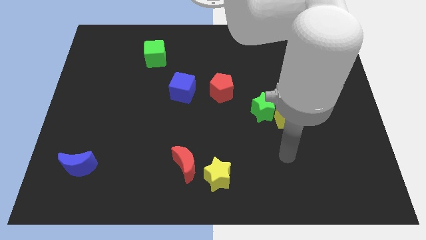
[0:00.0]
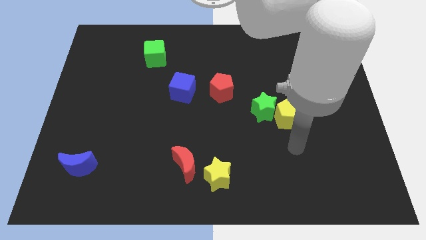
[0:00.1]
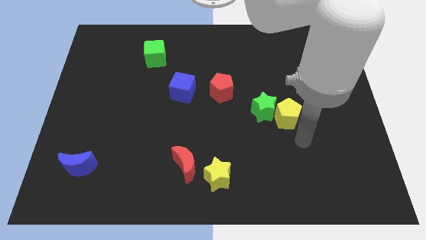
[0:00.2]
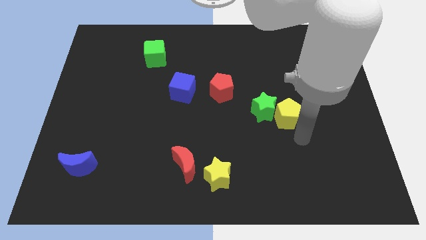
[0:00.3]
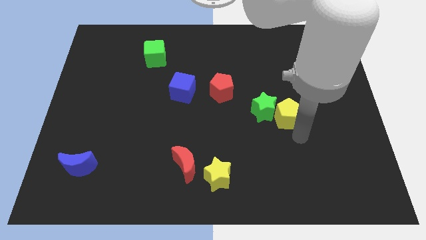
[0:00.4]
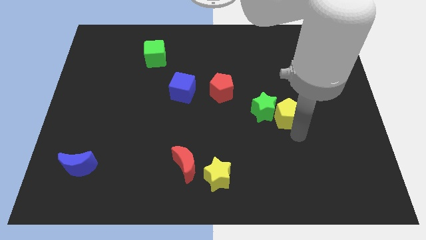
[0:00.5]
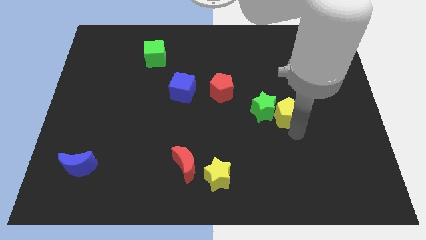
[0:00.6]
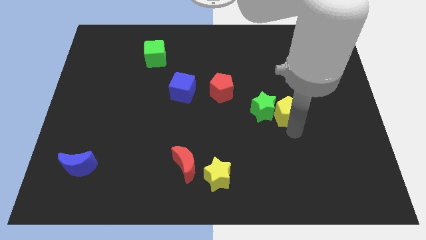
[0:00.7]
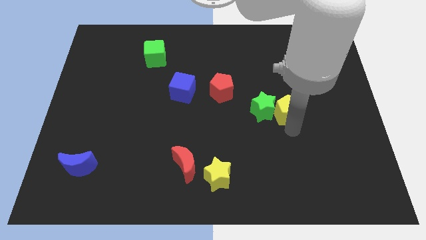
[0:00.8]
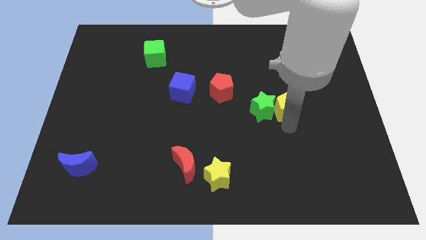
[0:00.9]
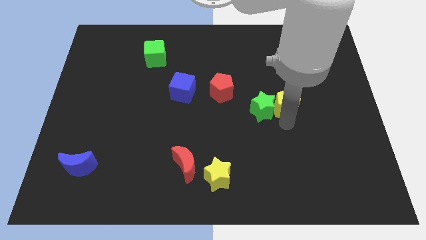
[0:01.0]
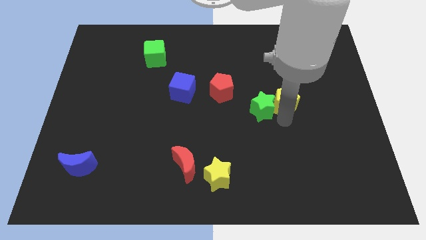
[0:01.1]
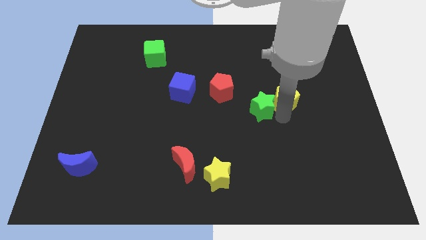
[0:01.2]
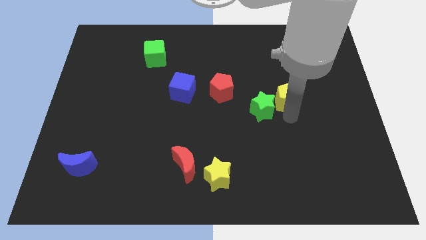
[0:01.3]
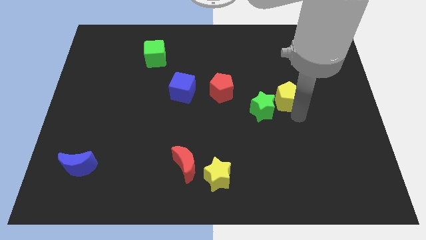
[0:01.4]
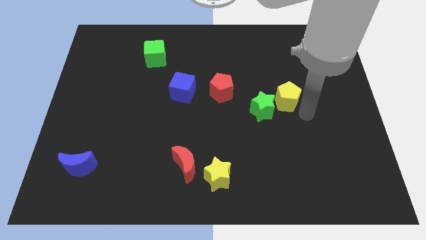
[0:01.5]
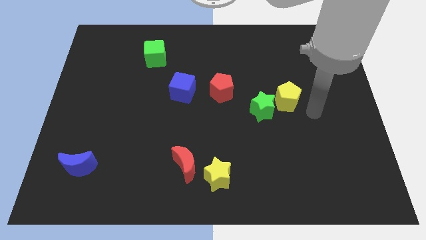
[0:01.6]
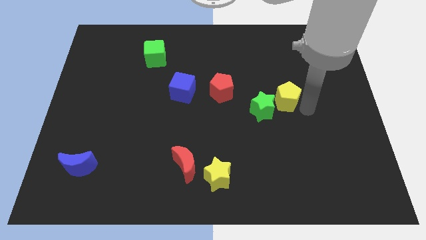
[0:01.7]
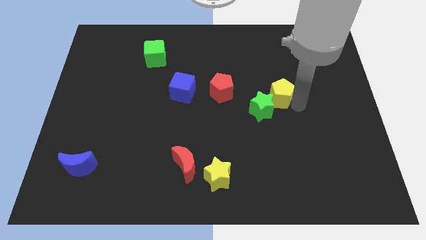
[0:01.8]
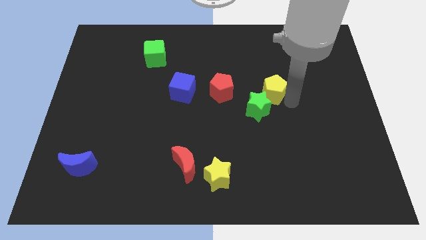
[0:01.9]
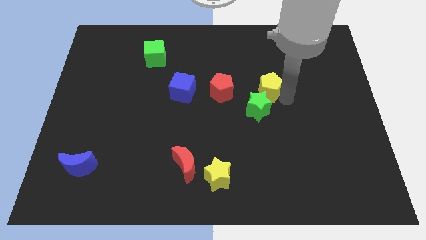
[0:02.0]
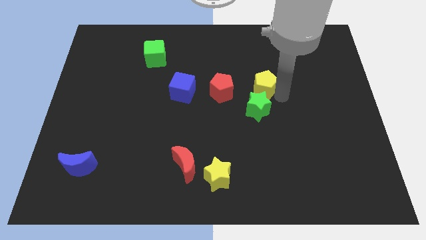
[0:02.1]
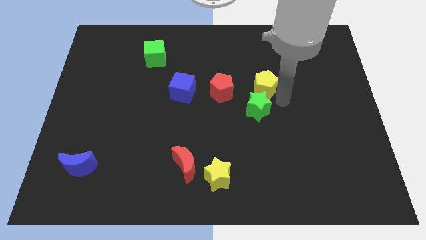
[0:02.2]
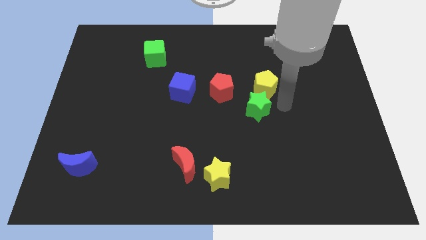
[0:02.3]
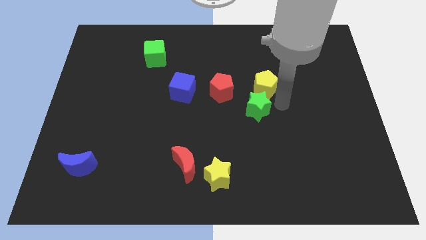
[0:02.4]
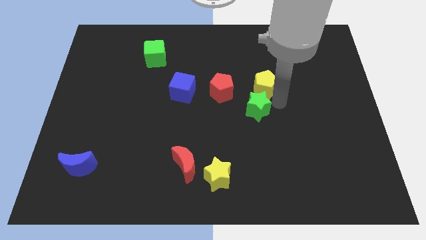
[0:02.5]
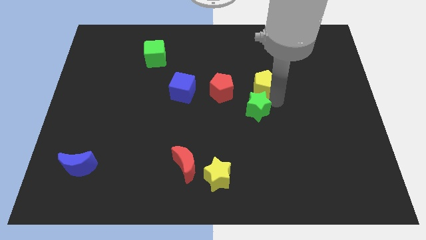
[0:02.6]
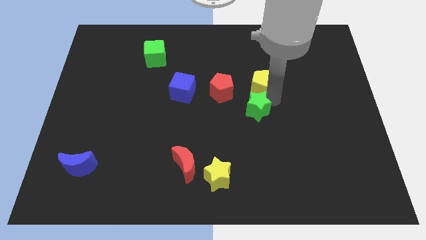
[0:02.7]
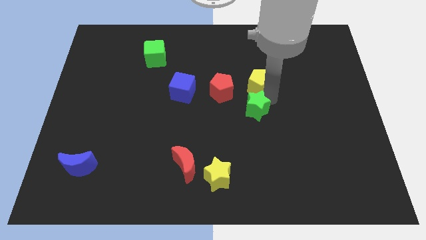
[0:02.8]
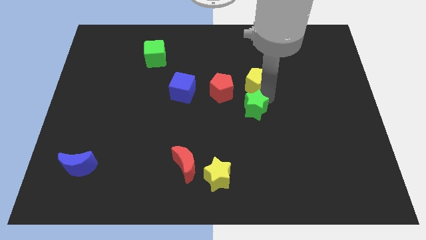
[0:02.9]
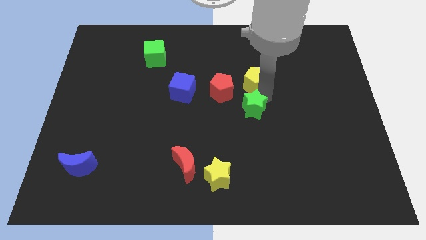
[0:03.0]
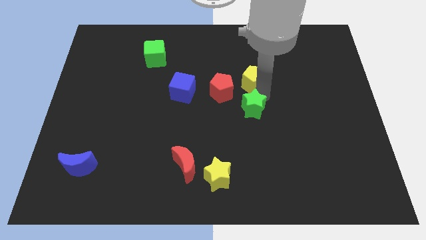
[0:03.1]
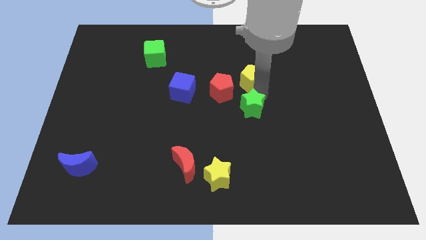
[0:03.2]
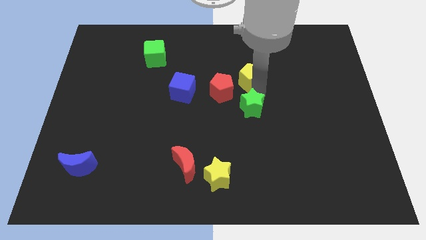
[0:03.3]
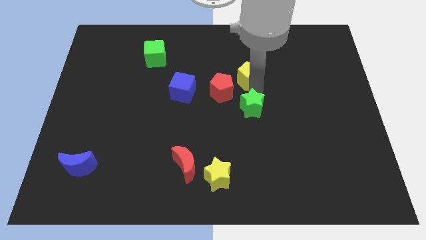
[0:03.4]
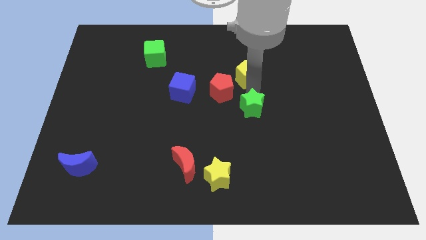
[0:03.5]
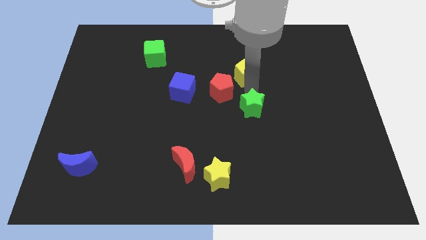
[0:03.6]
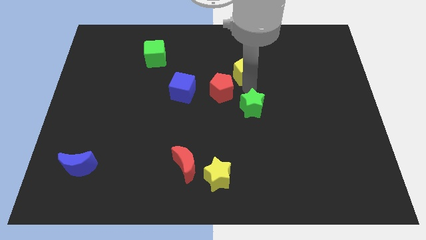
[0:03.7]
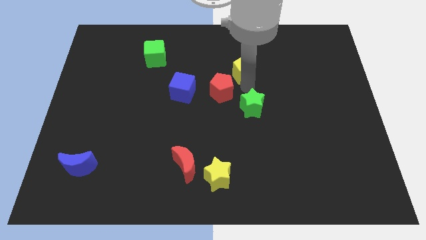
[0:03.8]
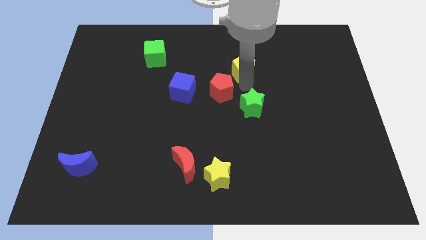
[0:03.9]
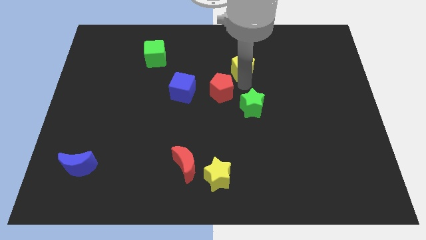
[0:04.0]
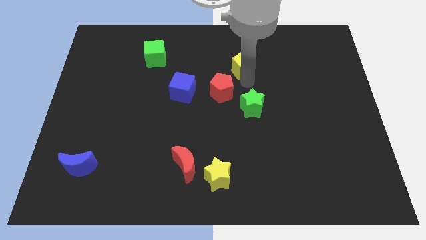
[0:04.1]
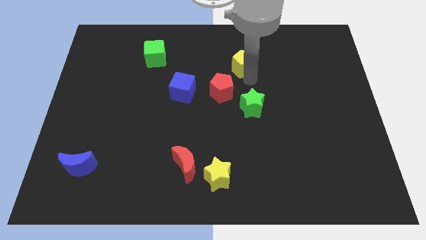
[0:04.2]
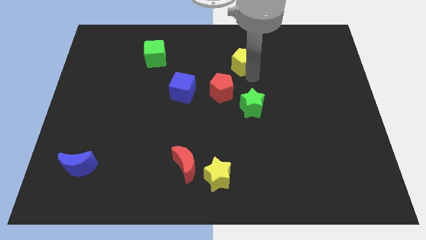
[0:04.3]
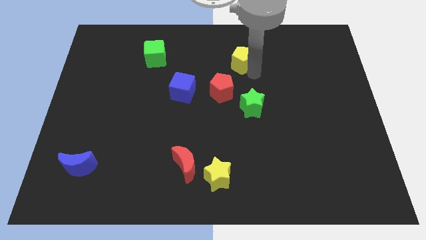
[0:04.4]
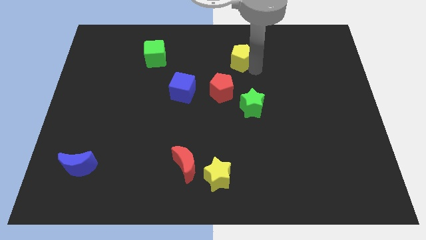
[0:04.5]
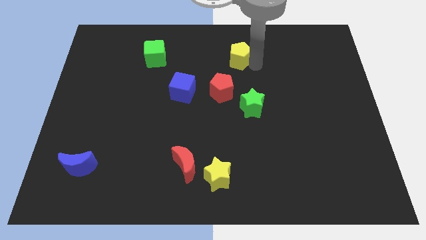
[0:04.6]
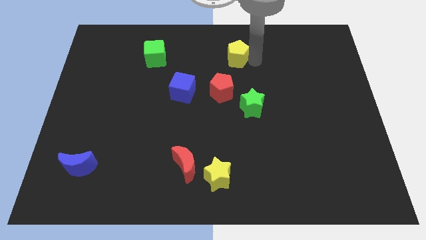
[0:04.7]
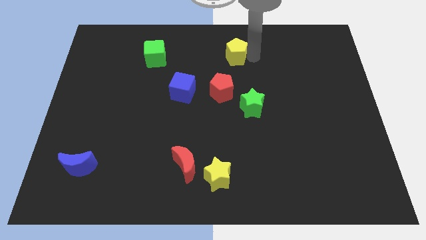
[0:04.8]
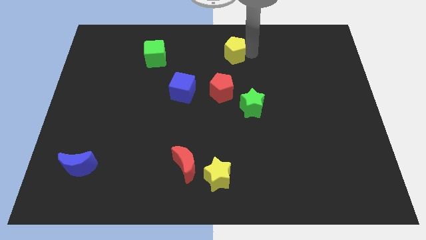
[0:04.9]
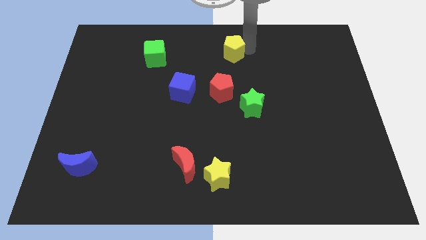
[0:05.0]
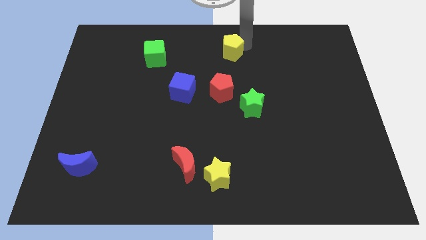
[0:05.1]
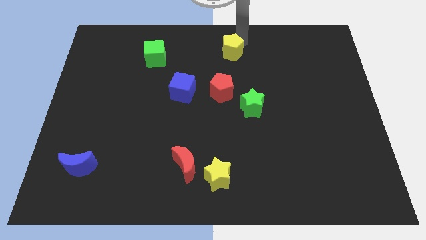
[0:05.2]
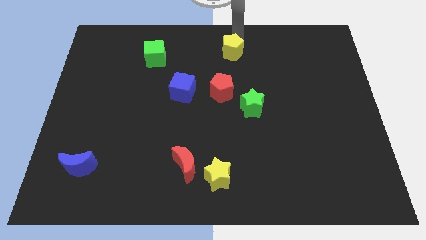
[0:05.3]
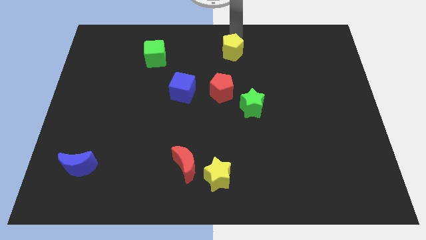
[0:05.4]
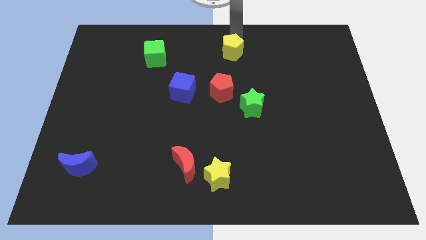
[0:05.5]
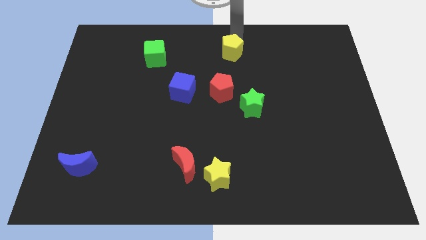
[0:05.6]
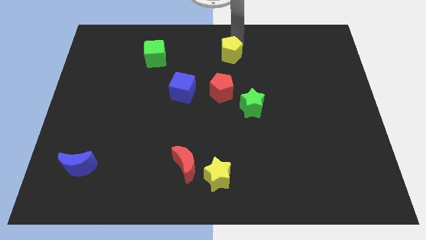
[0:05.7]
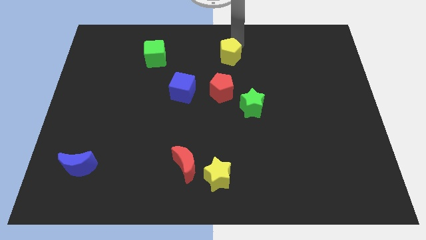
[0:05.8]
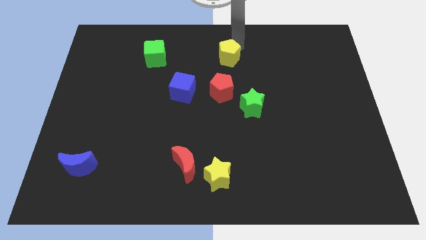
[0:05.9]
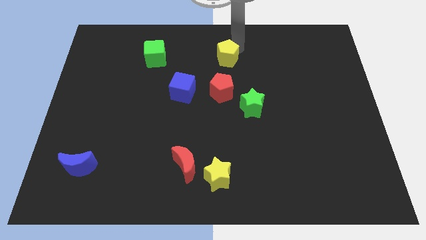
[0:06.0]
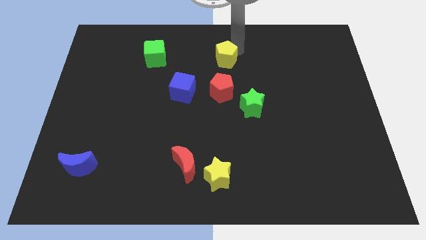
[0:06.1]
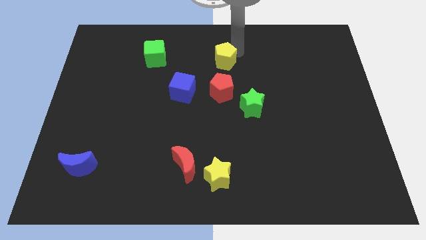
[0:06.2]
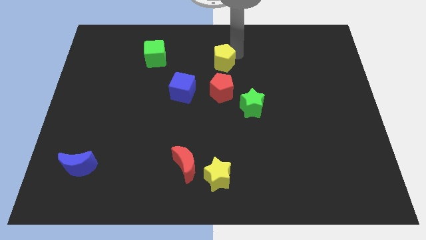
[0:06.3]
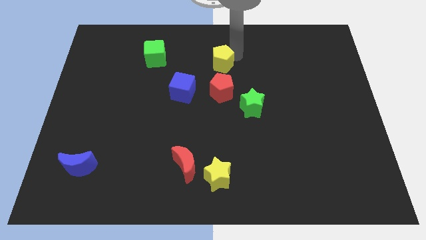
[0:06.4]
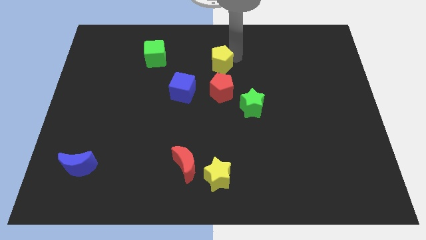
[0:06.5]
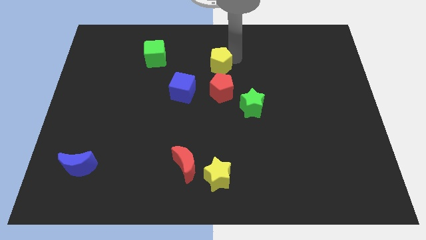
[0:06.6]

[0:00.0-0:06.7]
move the yellow pentagon to the top right side of the blue cube

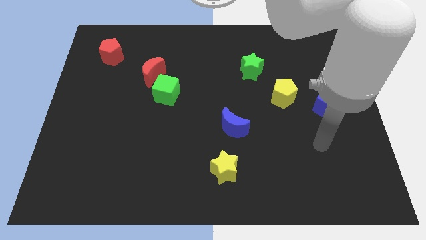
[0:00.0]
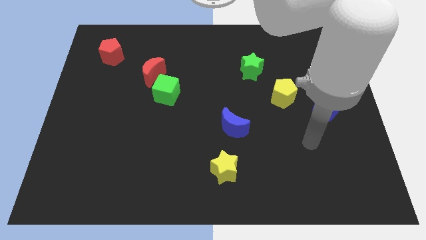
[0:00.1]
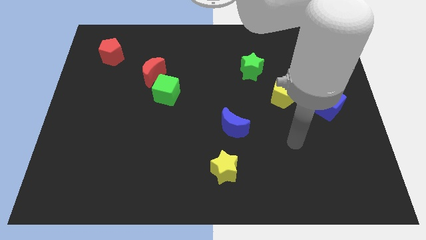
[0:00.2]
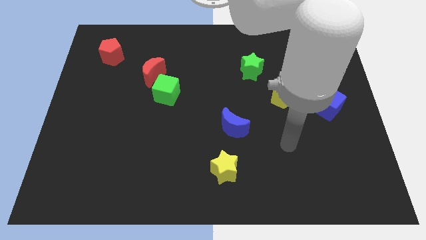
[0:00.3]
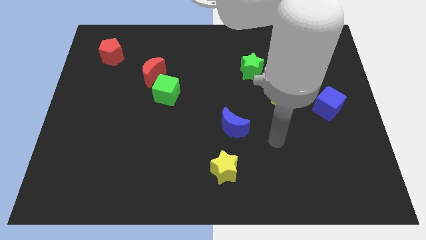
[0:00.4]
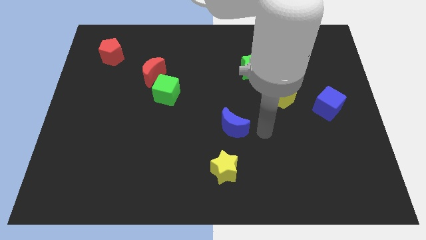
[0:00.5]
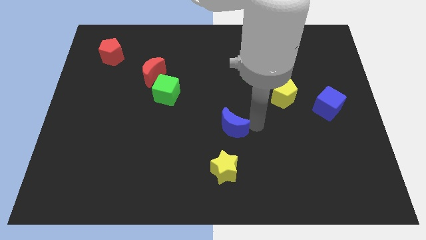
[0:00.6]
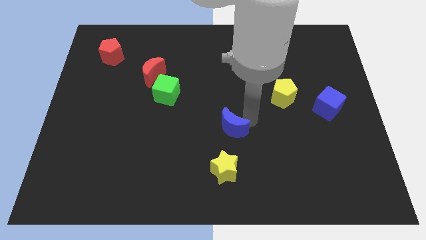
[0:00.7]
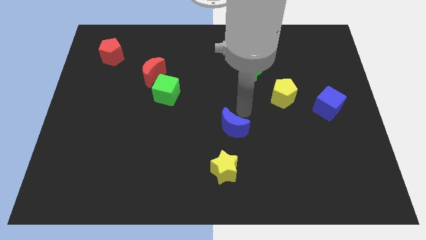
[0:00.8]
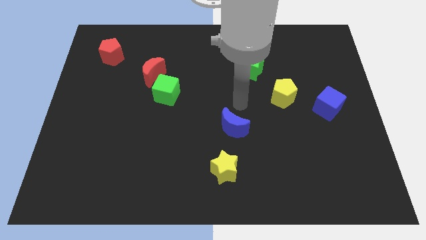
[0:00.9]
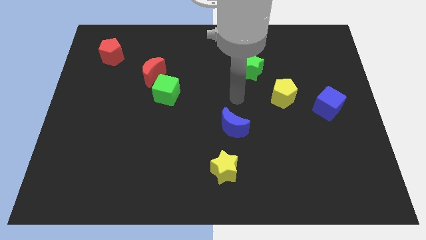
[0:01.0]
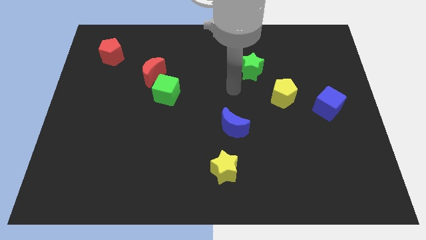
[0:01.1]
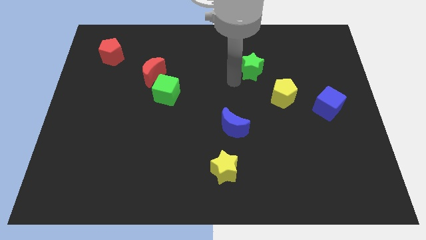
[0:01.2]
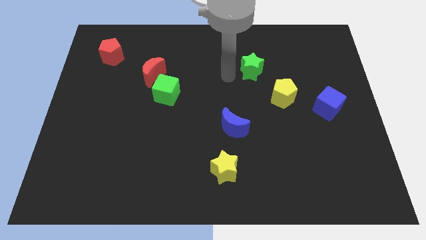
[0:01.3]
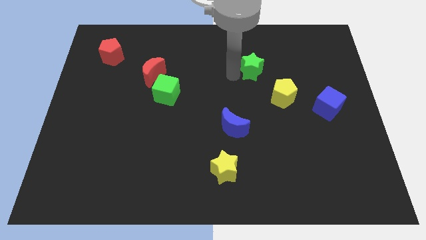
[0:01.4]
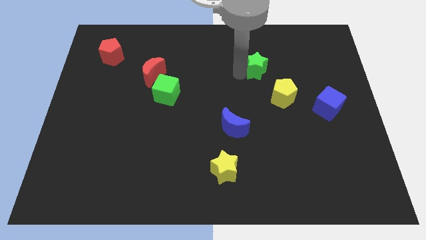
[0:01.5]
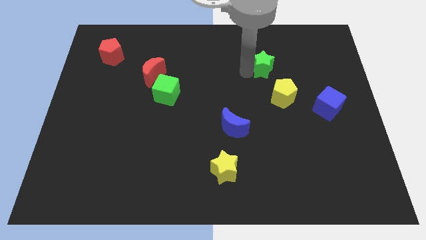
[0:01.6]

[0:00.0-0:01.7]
push the green star to the top side of the yellow pentagon
